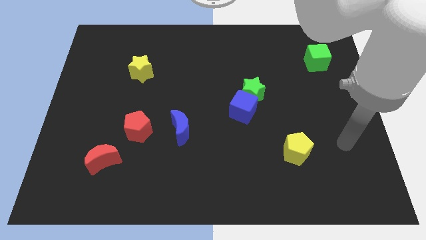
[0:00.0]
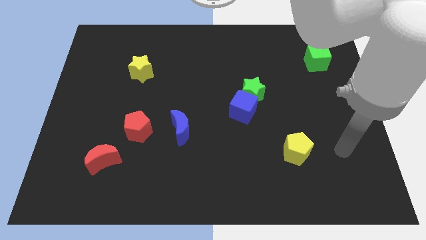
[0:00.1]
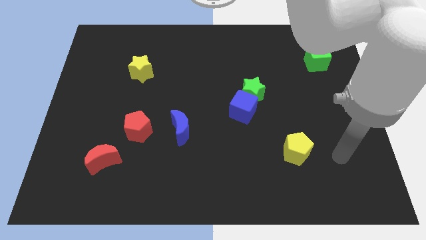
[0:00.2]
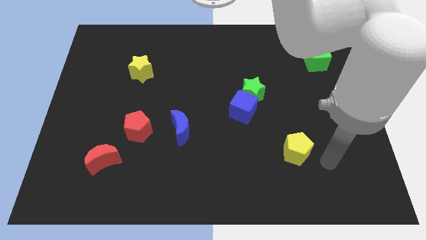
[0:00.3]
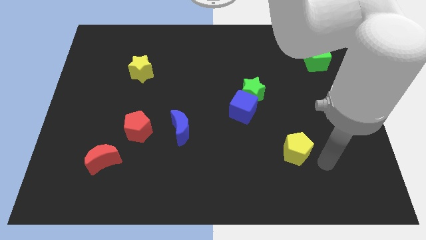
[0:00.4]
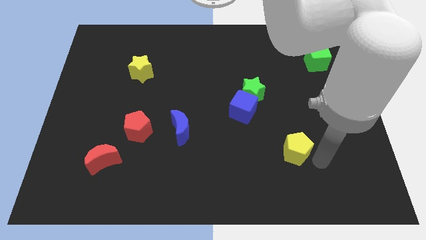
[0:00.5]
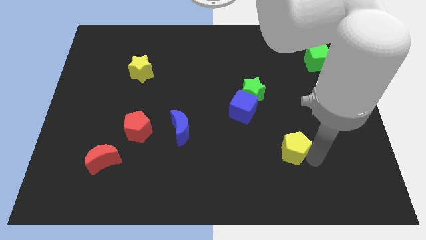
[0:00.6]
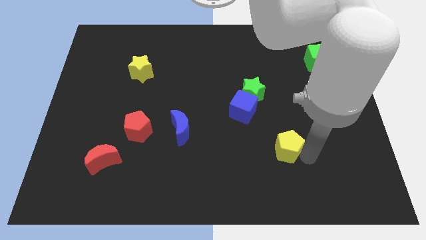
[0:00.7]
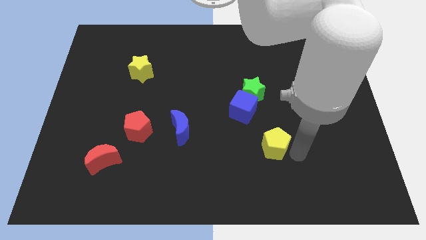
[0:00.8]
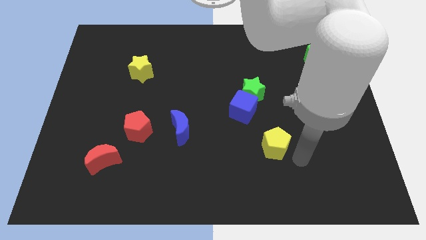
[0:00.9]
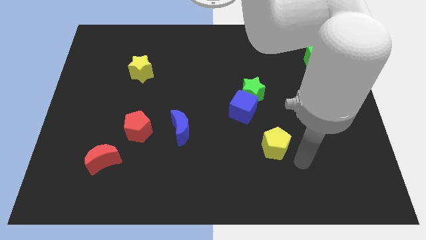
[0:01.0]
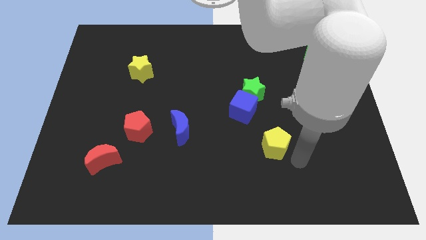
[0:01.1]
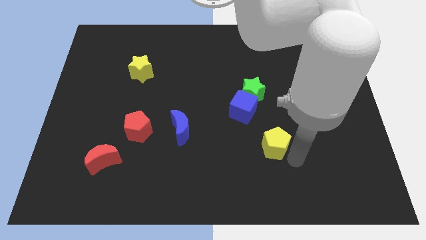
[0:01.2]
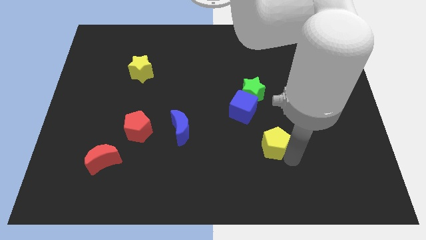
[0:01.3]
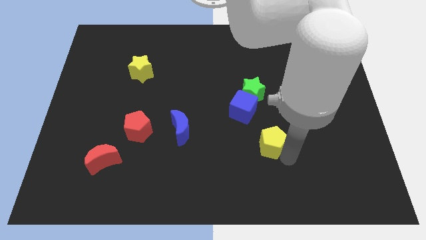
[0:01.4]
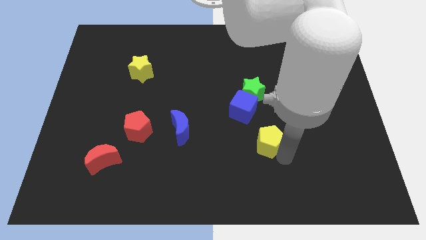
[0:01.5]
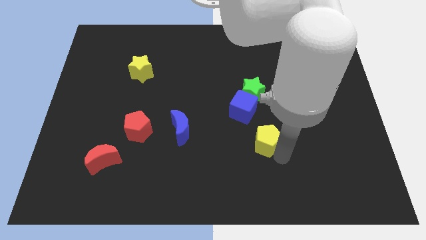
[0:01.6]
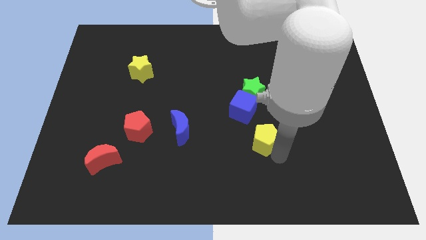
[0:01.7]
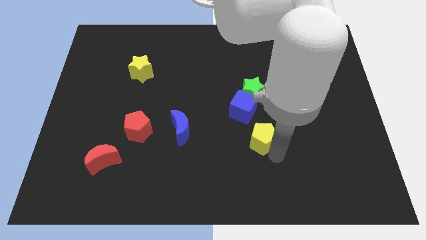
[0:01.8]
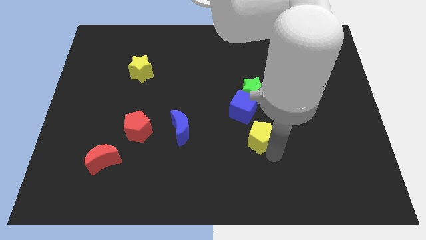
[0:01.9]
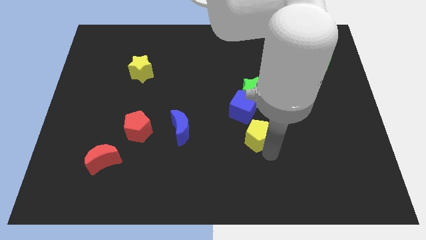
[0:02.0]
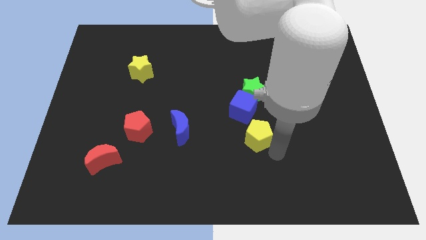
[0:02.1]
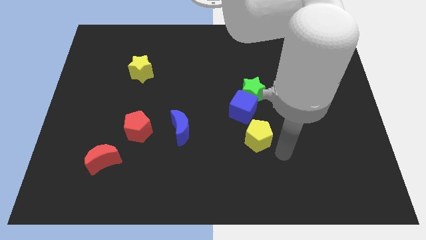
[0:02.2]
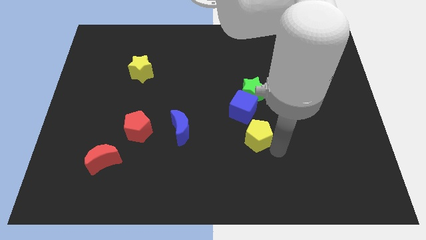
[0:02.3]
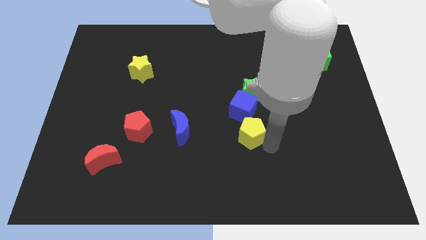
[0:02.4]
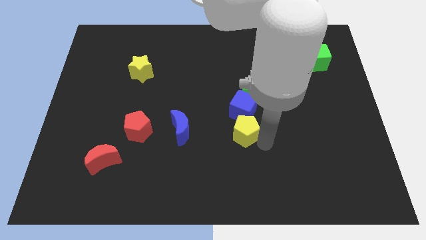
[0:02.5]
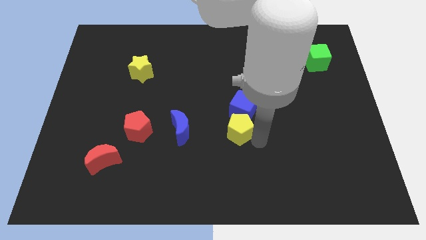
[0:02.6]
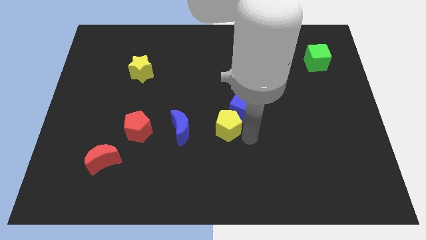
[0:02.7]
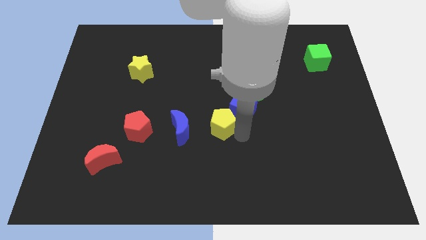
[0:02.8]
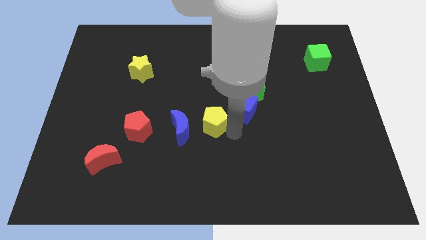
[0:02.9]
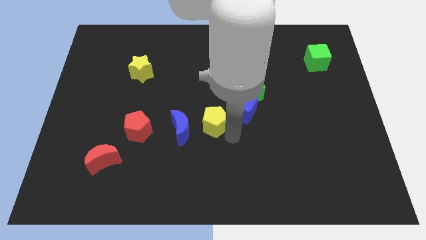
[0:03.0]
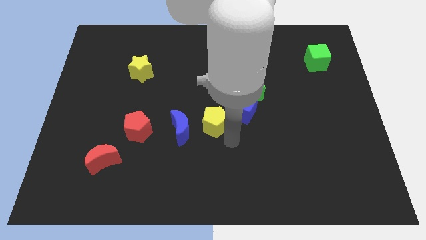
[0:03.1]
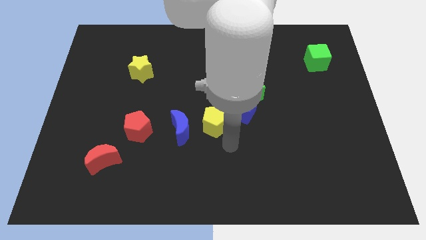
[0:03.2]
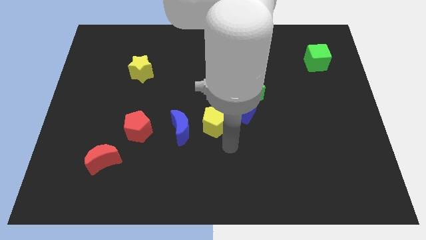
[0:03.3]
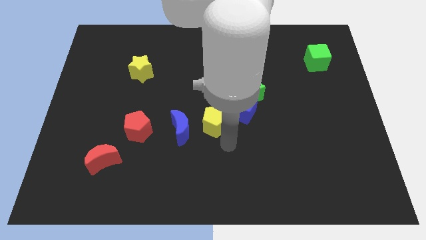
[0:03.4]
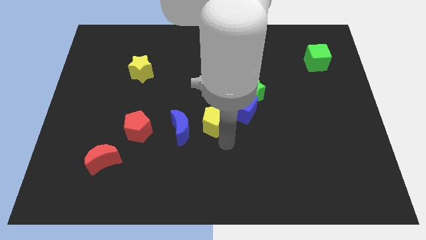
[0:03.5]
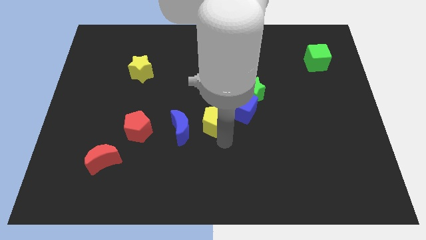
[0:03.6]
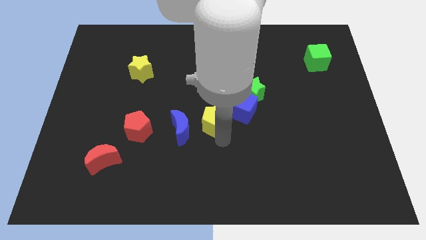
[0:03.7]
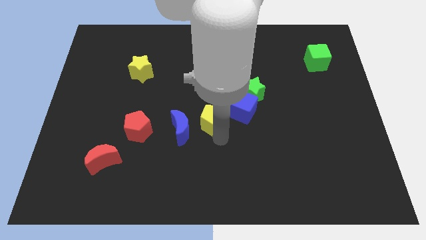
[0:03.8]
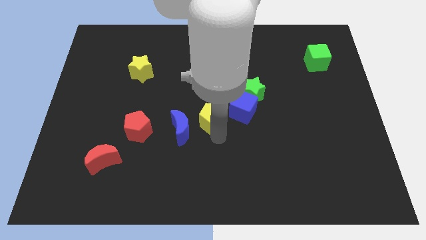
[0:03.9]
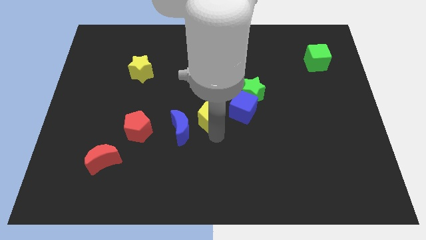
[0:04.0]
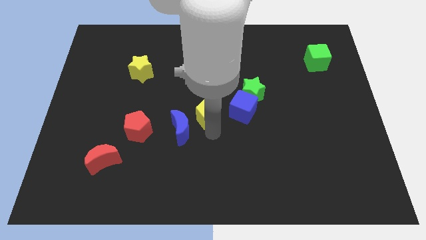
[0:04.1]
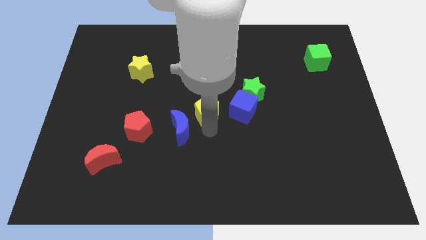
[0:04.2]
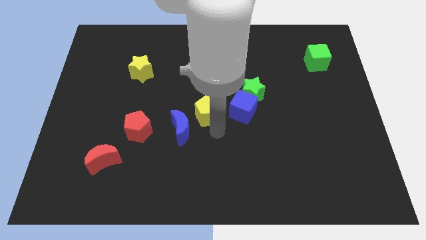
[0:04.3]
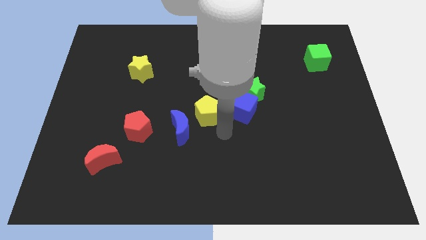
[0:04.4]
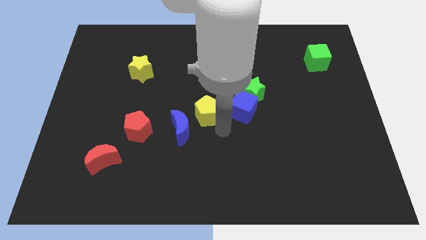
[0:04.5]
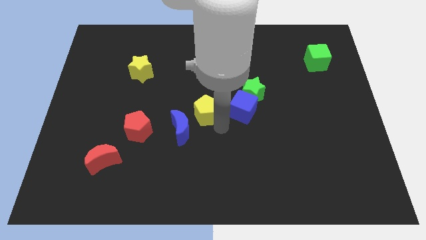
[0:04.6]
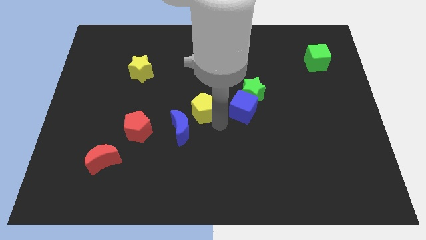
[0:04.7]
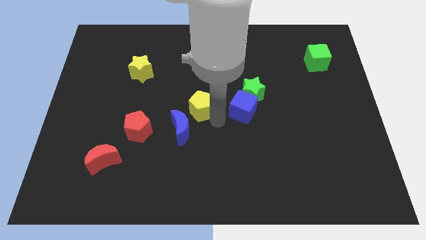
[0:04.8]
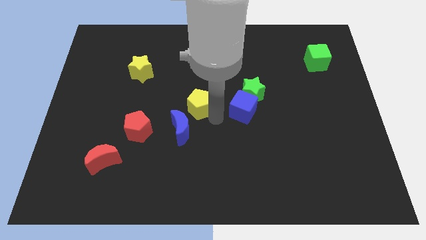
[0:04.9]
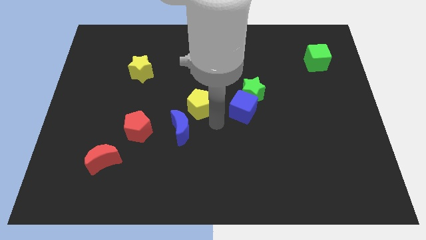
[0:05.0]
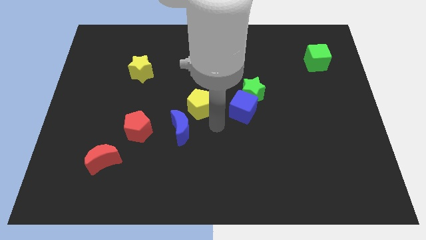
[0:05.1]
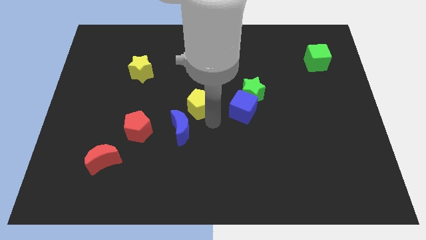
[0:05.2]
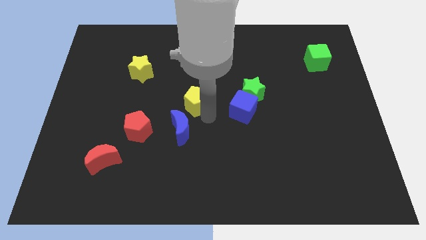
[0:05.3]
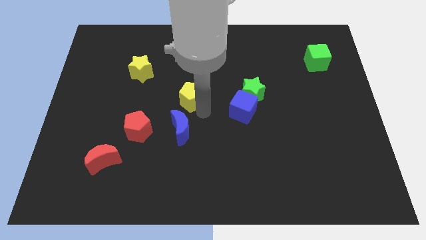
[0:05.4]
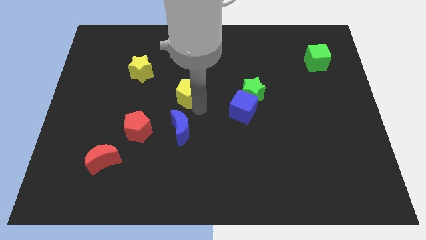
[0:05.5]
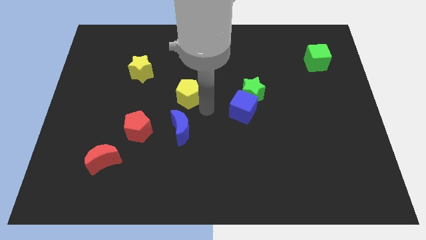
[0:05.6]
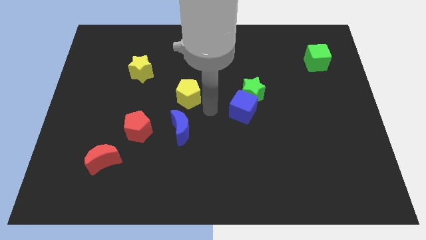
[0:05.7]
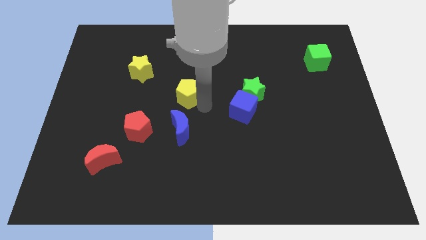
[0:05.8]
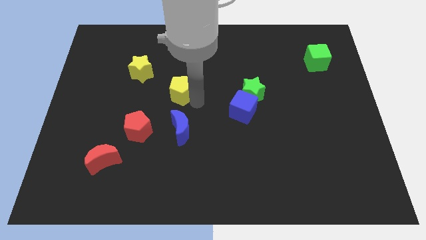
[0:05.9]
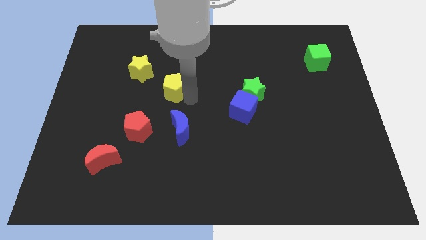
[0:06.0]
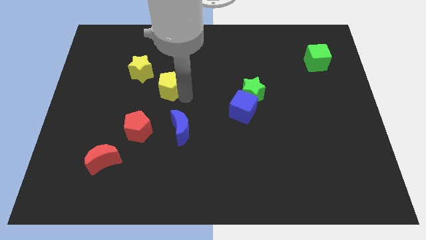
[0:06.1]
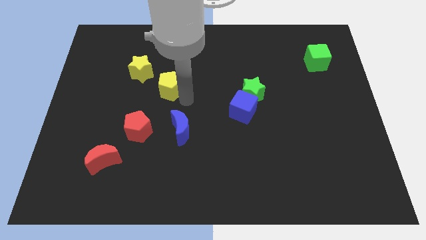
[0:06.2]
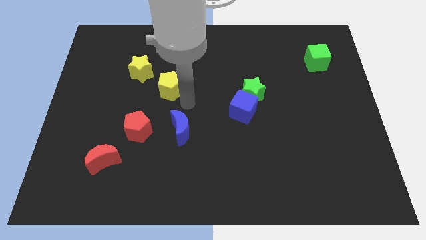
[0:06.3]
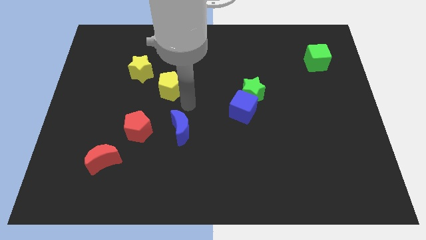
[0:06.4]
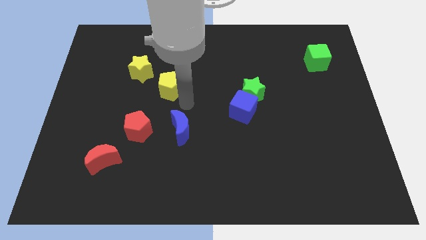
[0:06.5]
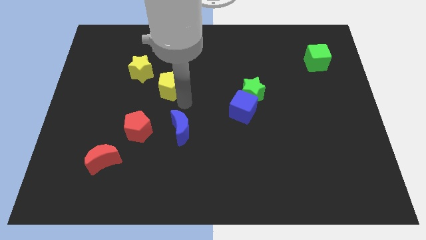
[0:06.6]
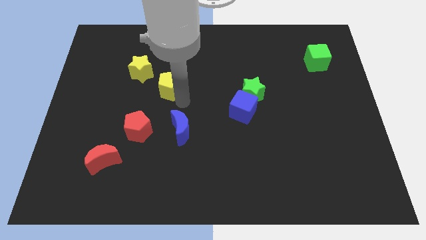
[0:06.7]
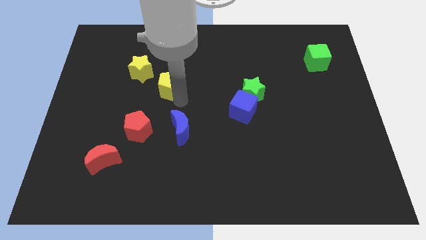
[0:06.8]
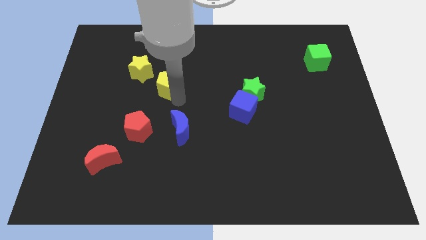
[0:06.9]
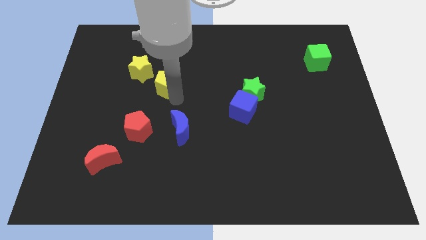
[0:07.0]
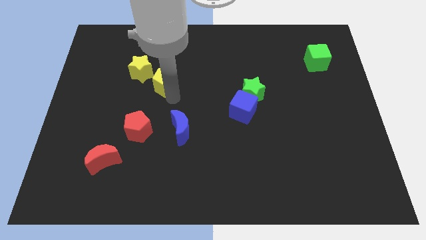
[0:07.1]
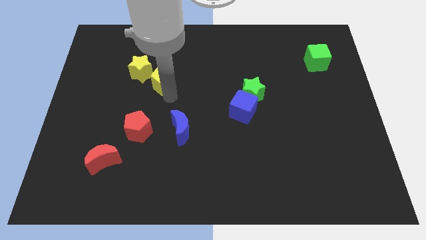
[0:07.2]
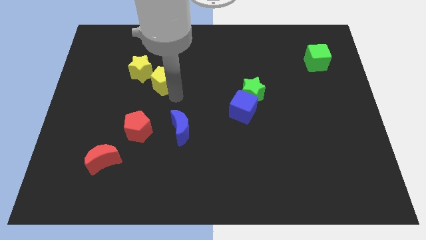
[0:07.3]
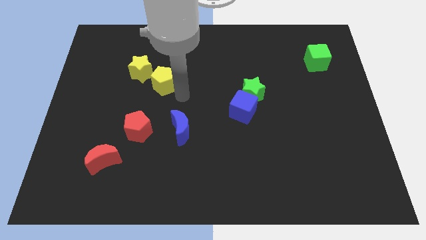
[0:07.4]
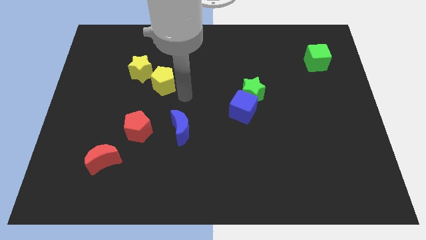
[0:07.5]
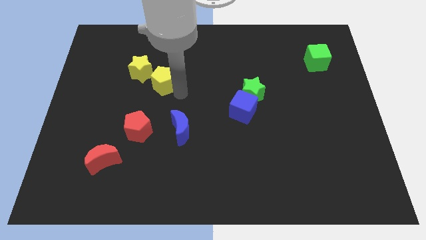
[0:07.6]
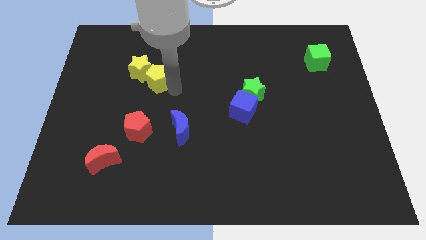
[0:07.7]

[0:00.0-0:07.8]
move the yellow pentagon to the yellow star
